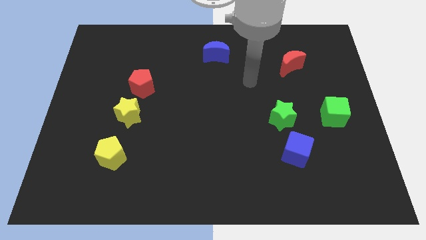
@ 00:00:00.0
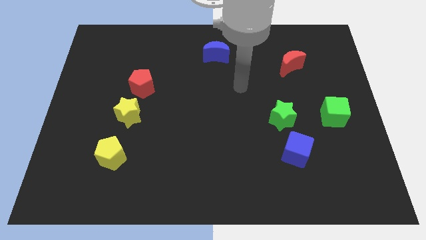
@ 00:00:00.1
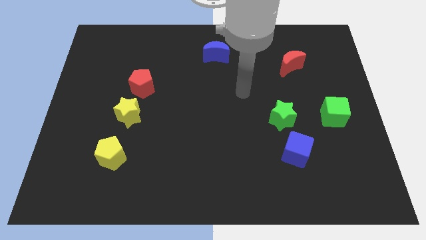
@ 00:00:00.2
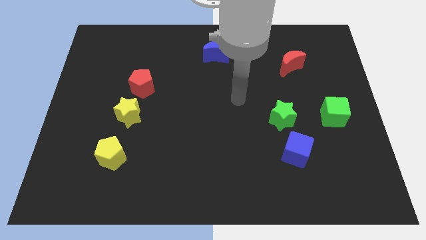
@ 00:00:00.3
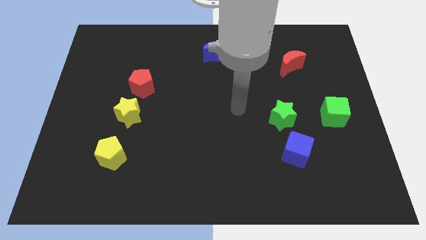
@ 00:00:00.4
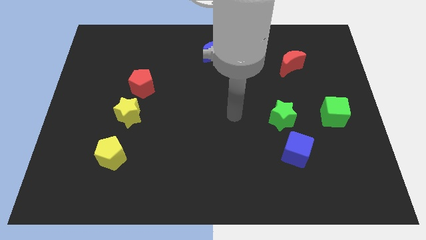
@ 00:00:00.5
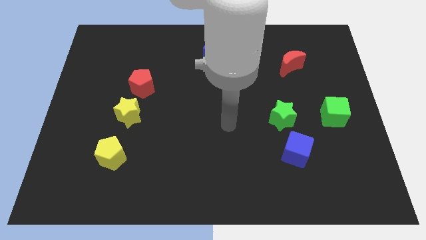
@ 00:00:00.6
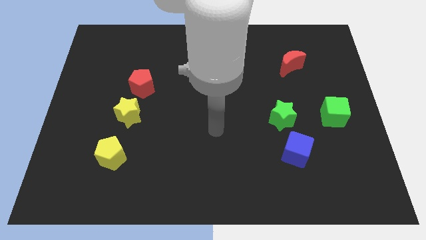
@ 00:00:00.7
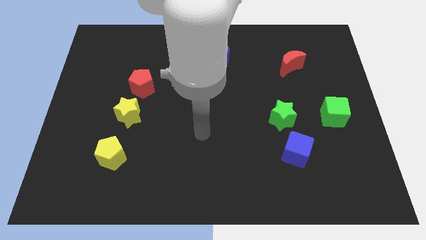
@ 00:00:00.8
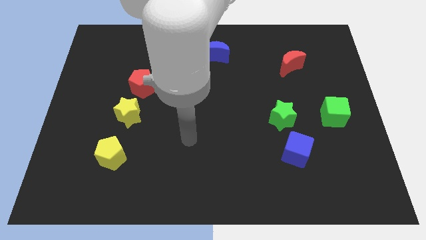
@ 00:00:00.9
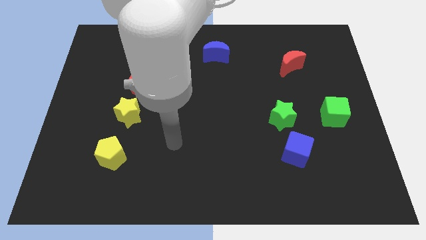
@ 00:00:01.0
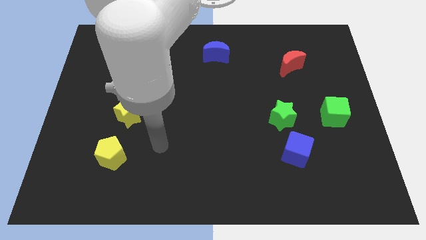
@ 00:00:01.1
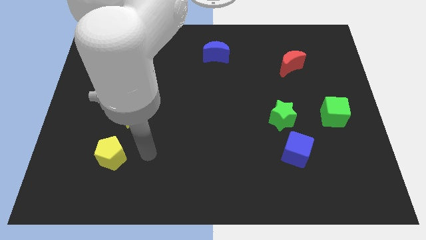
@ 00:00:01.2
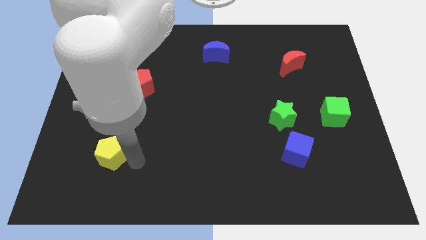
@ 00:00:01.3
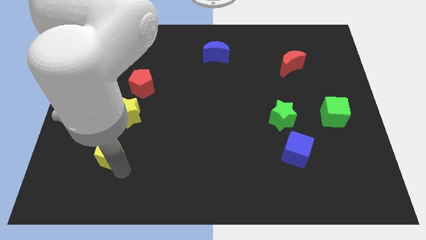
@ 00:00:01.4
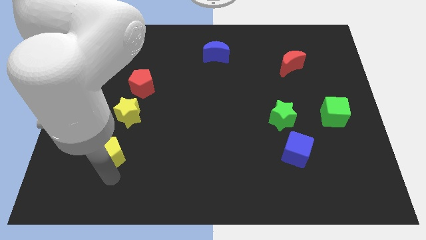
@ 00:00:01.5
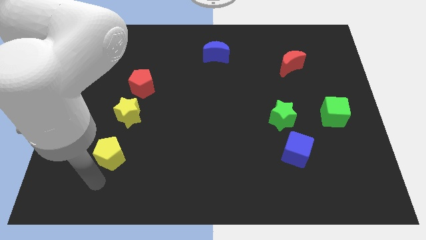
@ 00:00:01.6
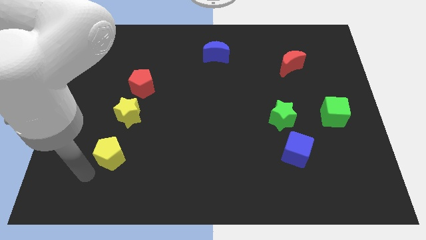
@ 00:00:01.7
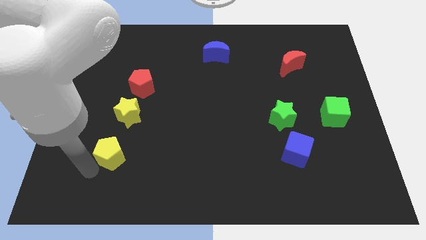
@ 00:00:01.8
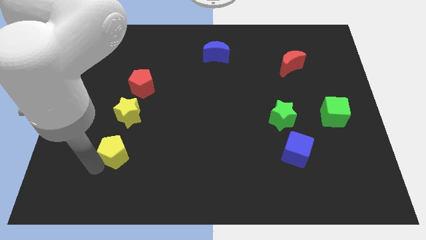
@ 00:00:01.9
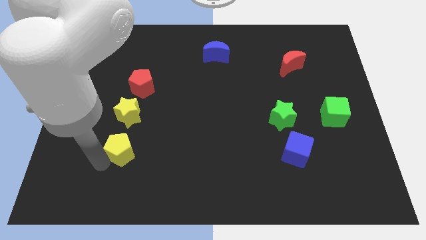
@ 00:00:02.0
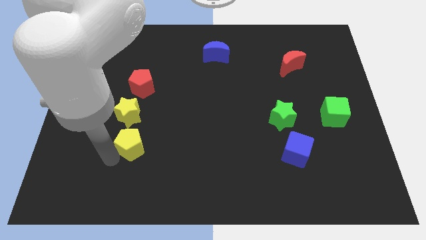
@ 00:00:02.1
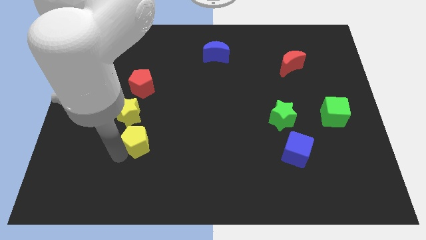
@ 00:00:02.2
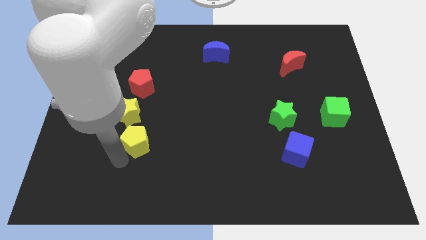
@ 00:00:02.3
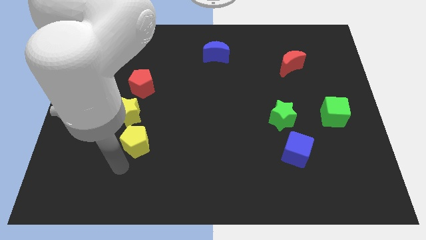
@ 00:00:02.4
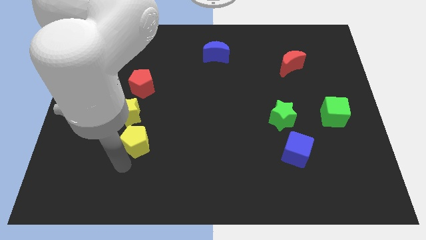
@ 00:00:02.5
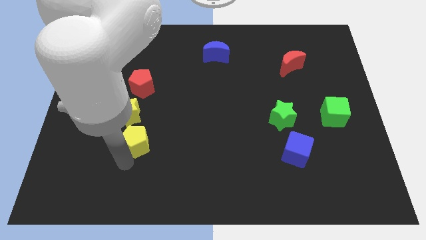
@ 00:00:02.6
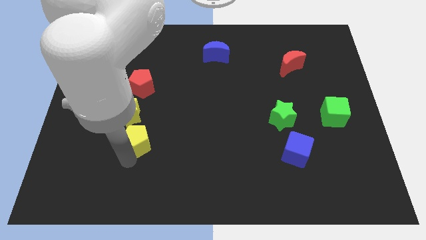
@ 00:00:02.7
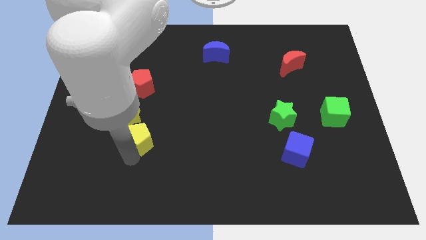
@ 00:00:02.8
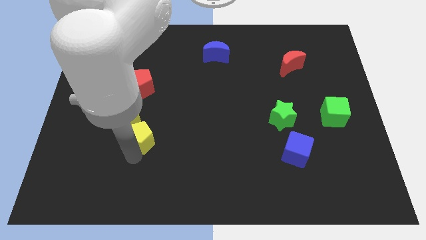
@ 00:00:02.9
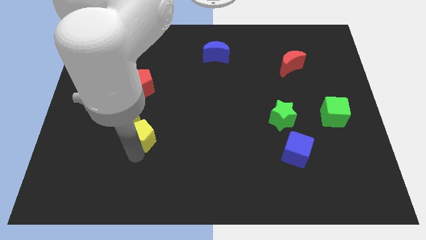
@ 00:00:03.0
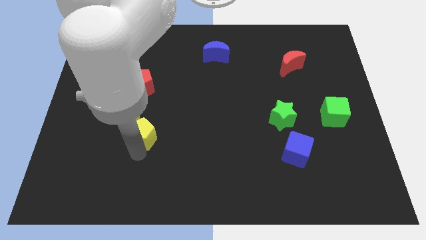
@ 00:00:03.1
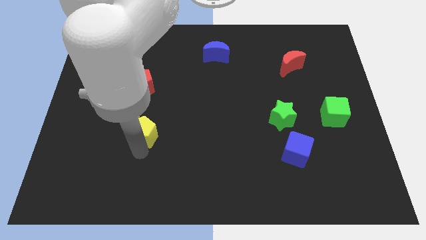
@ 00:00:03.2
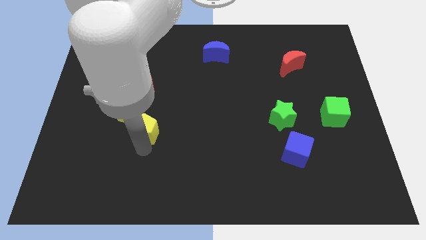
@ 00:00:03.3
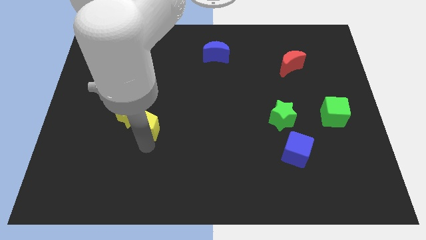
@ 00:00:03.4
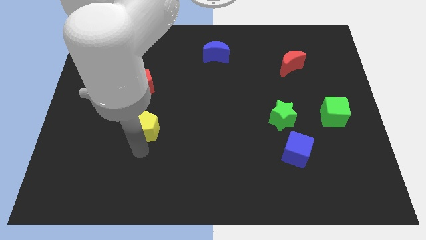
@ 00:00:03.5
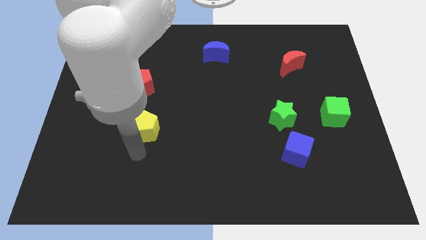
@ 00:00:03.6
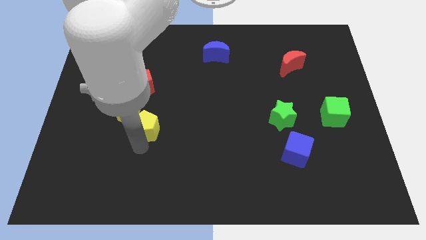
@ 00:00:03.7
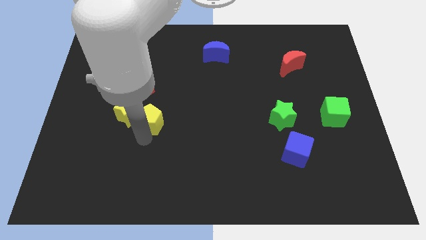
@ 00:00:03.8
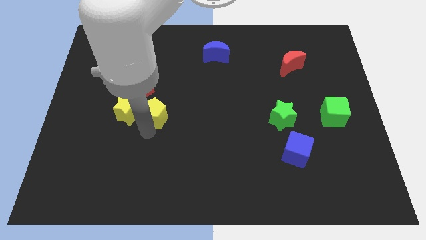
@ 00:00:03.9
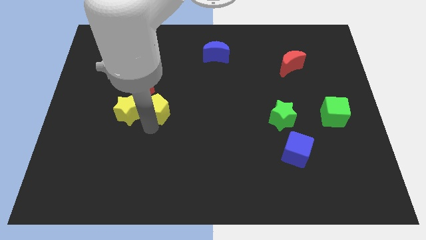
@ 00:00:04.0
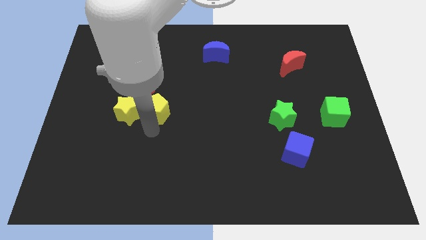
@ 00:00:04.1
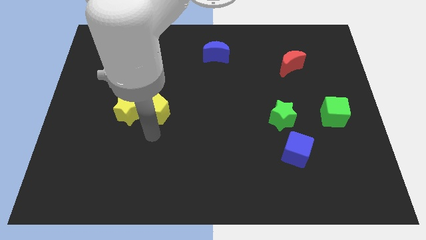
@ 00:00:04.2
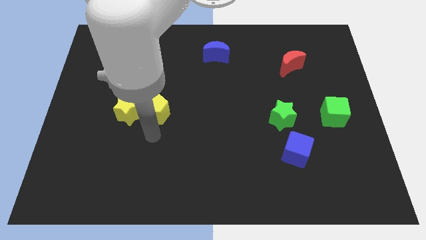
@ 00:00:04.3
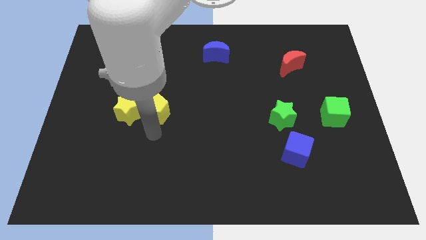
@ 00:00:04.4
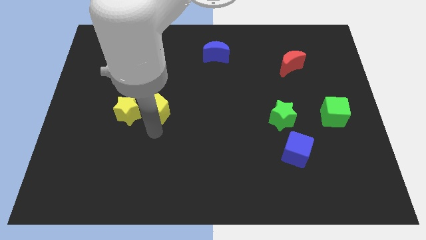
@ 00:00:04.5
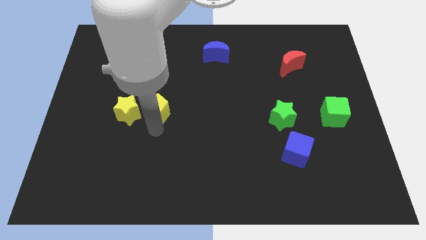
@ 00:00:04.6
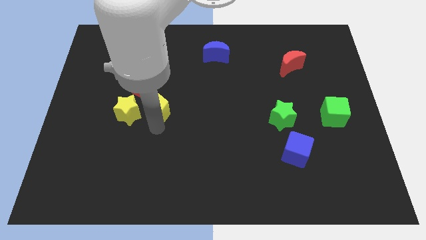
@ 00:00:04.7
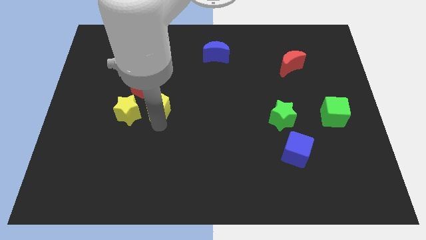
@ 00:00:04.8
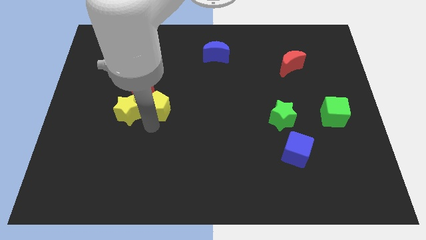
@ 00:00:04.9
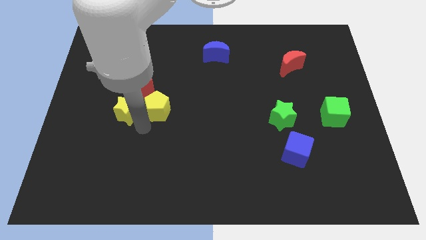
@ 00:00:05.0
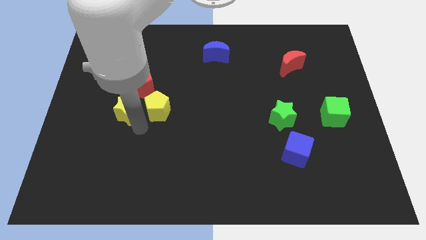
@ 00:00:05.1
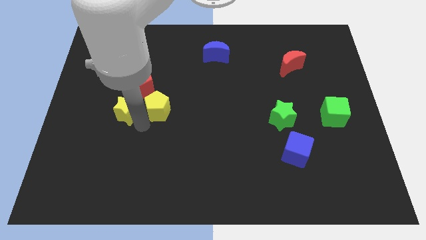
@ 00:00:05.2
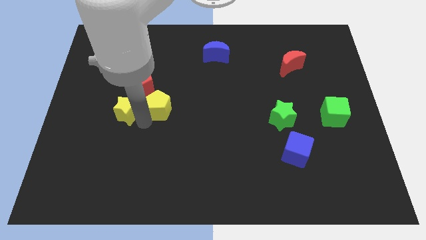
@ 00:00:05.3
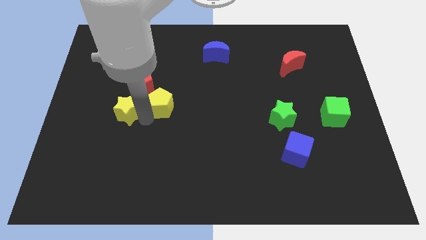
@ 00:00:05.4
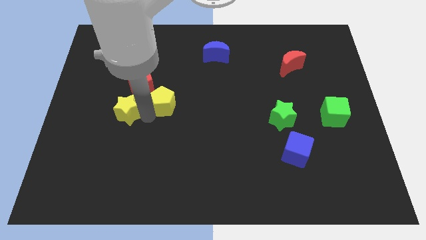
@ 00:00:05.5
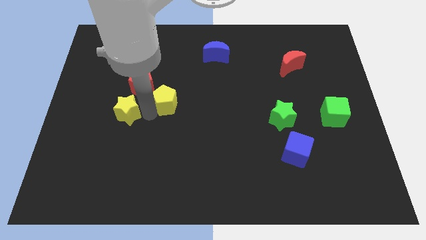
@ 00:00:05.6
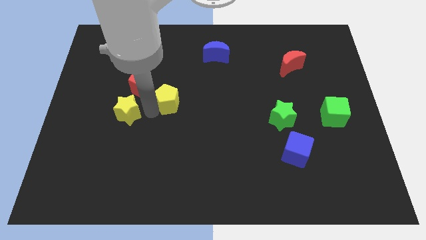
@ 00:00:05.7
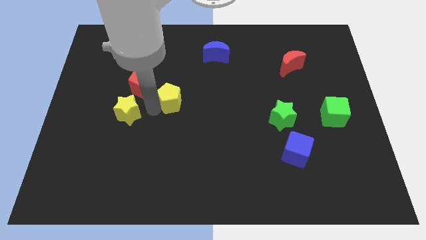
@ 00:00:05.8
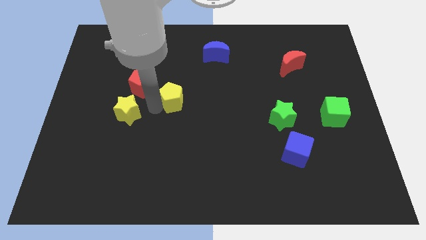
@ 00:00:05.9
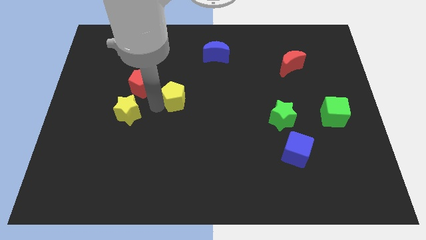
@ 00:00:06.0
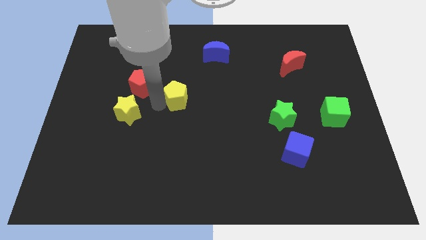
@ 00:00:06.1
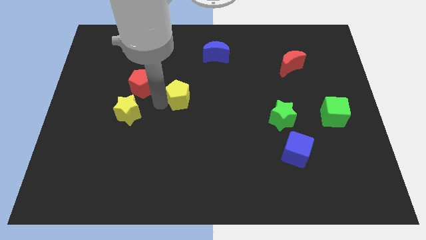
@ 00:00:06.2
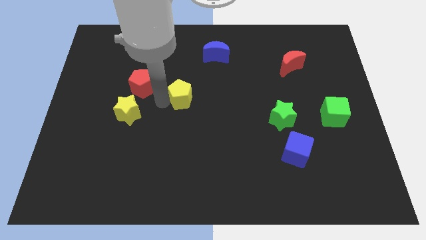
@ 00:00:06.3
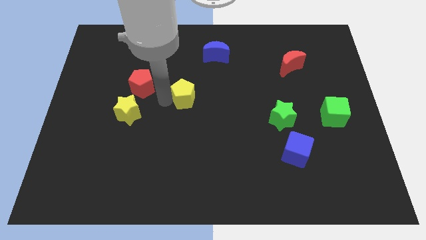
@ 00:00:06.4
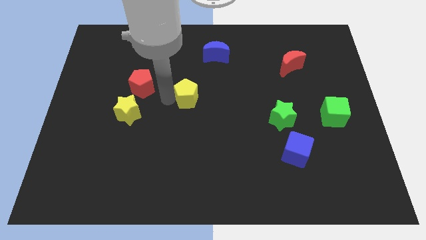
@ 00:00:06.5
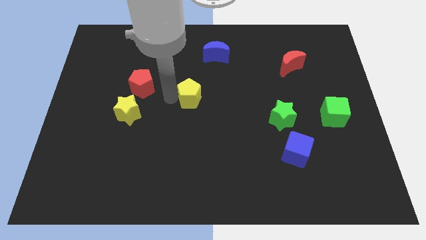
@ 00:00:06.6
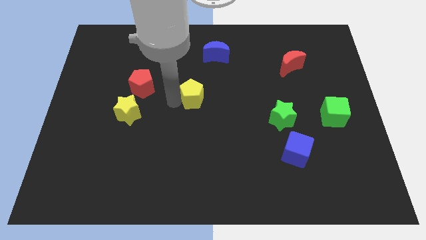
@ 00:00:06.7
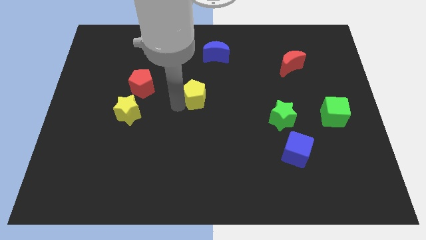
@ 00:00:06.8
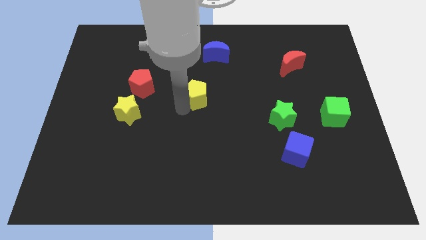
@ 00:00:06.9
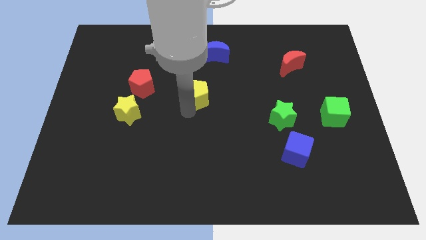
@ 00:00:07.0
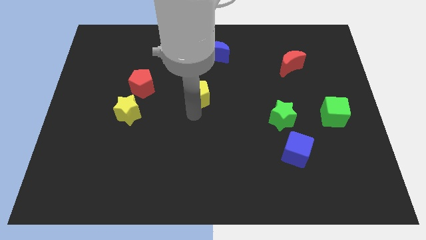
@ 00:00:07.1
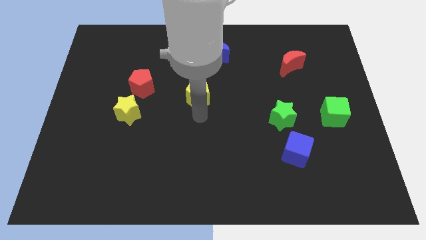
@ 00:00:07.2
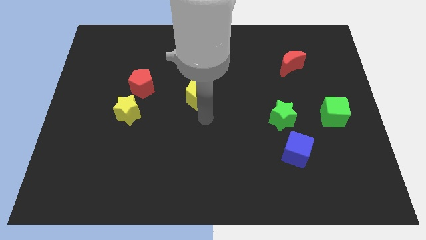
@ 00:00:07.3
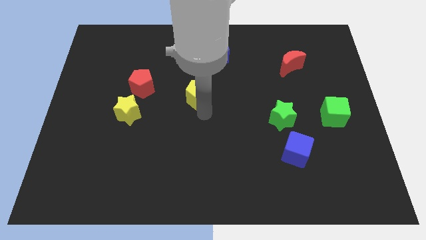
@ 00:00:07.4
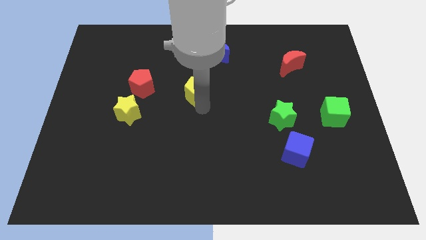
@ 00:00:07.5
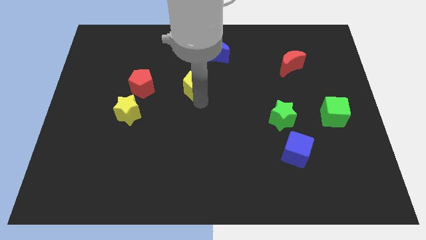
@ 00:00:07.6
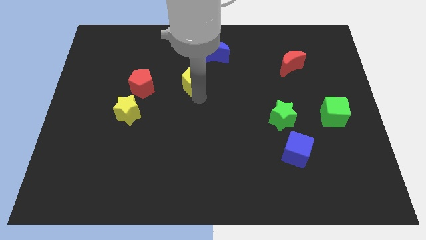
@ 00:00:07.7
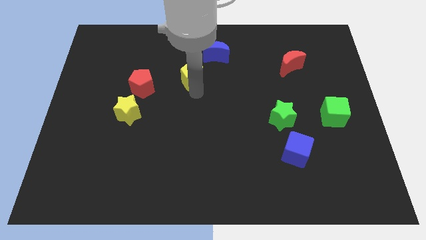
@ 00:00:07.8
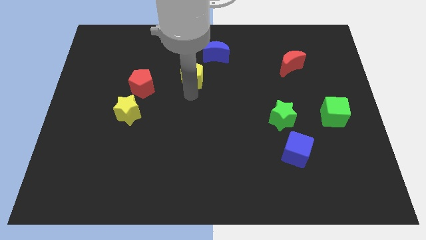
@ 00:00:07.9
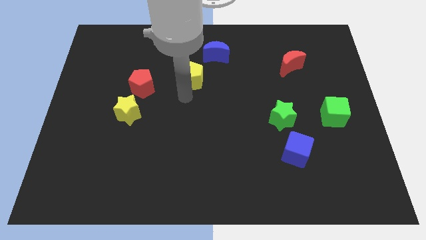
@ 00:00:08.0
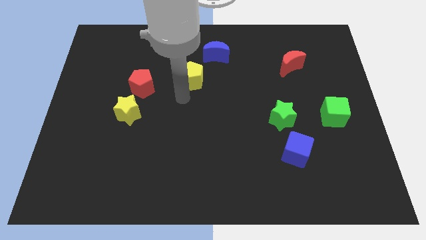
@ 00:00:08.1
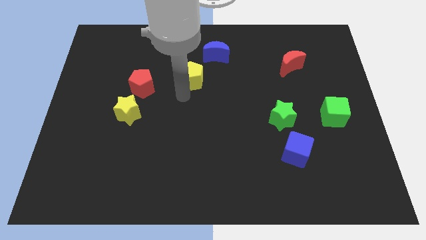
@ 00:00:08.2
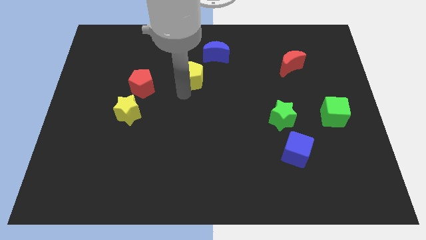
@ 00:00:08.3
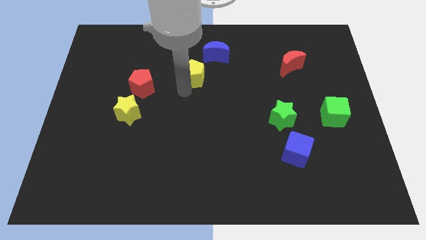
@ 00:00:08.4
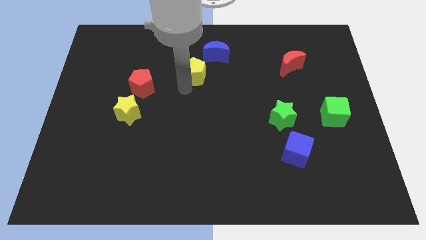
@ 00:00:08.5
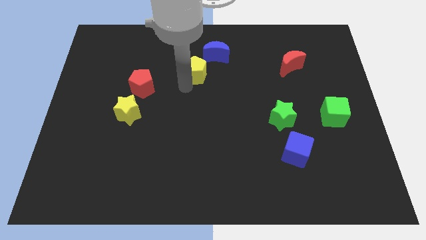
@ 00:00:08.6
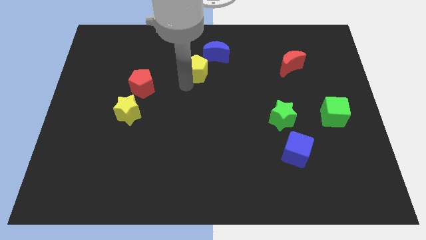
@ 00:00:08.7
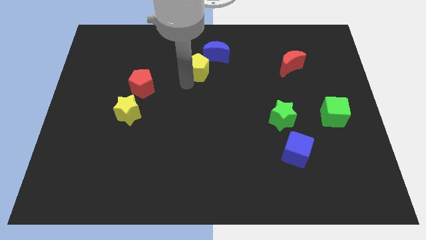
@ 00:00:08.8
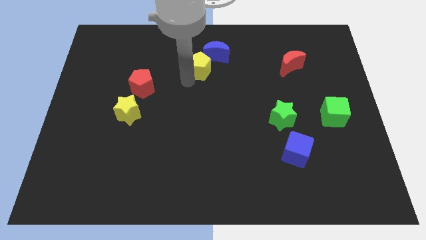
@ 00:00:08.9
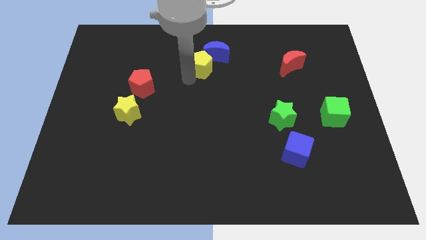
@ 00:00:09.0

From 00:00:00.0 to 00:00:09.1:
push the yellow pentagon towards the blue moon
